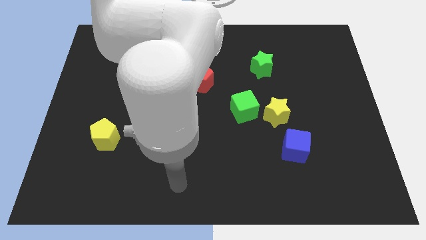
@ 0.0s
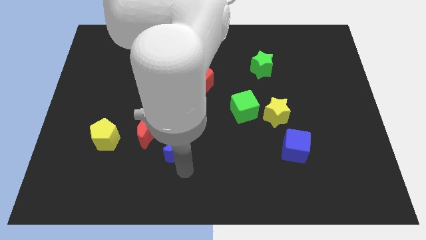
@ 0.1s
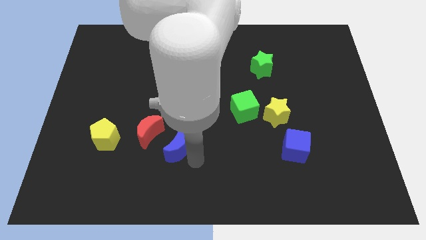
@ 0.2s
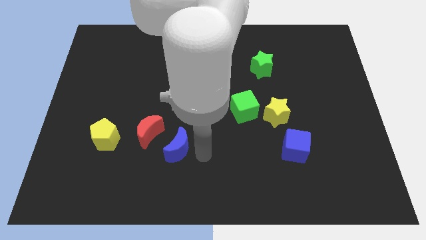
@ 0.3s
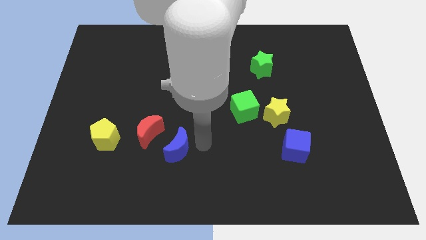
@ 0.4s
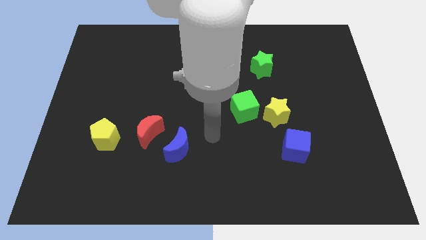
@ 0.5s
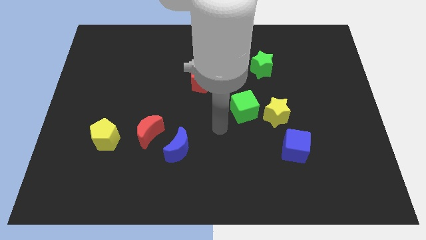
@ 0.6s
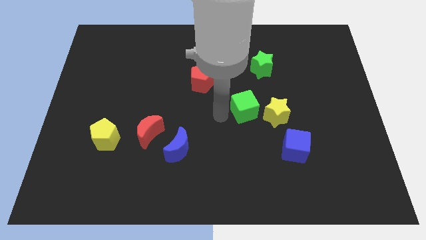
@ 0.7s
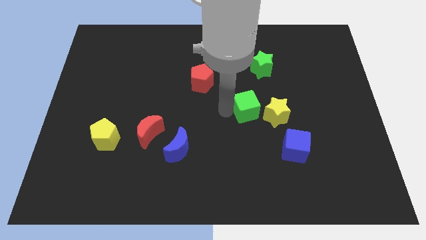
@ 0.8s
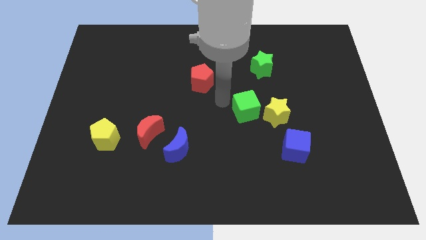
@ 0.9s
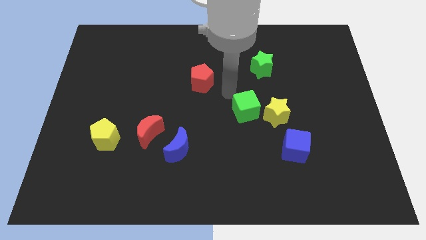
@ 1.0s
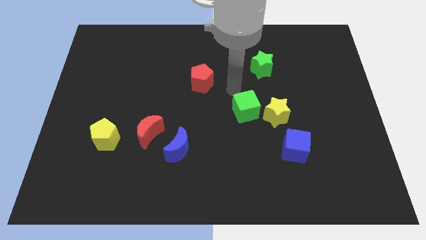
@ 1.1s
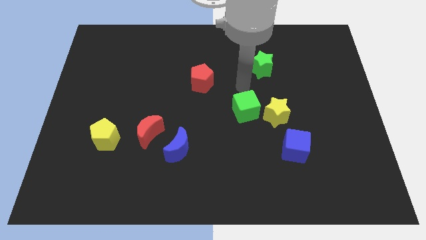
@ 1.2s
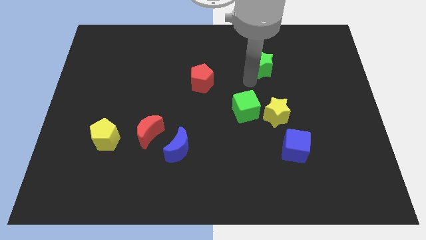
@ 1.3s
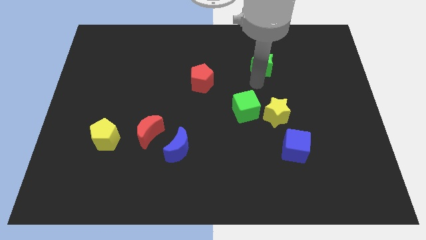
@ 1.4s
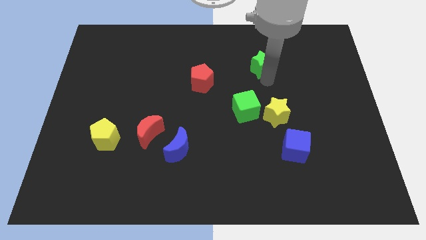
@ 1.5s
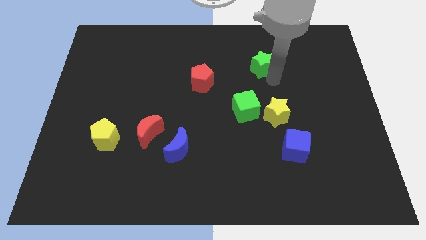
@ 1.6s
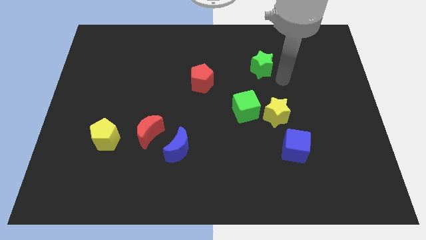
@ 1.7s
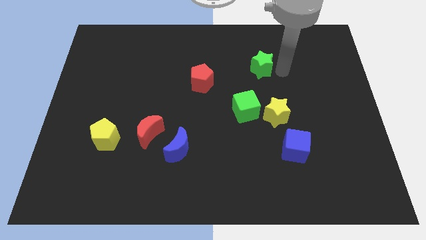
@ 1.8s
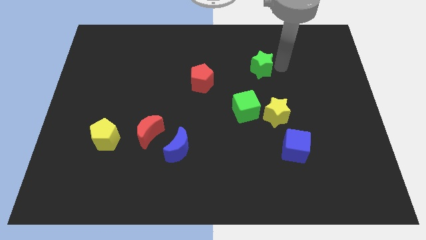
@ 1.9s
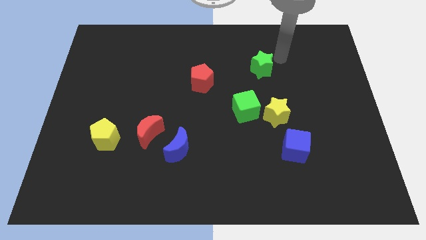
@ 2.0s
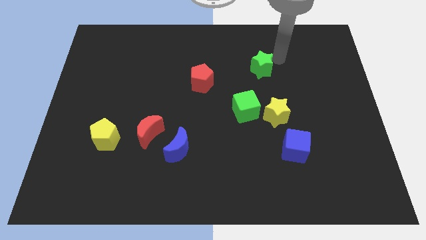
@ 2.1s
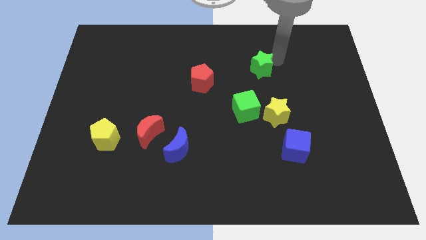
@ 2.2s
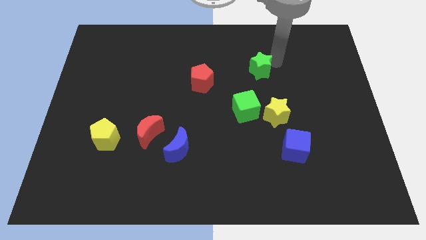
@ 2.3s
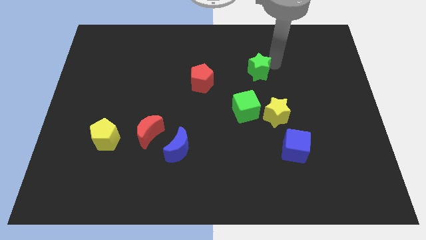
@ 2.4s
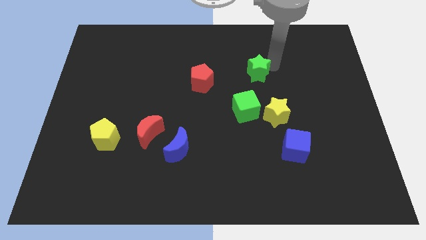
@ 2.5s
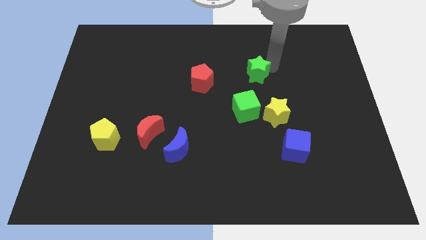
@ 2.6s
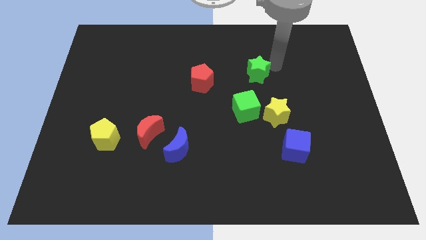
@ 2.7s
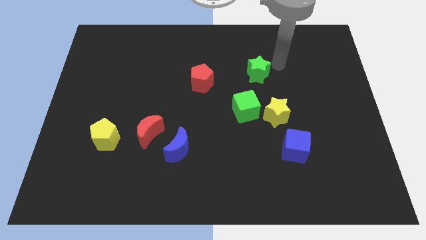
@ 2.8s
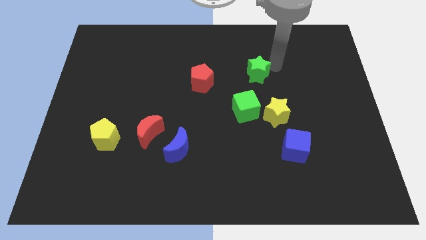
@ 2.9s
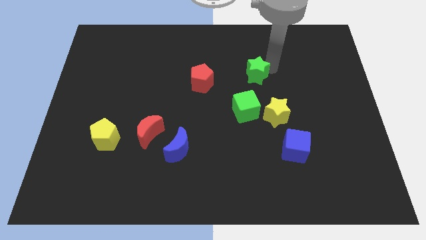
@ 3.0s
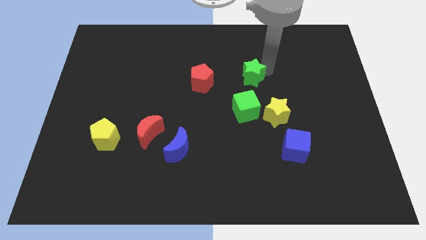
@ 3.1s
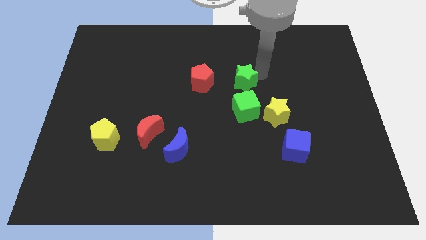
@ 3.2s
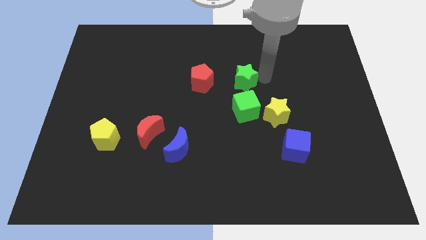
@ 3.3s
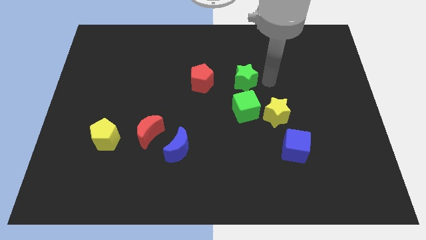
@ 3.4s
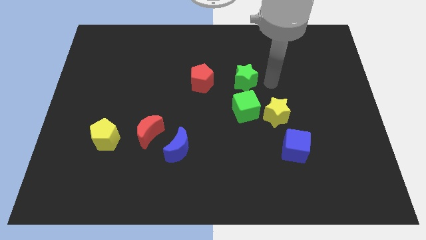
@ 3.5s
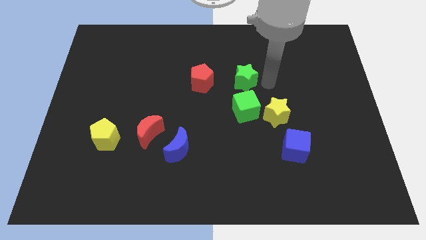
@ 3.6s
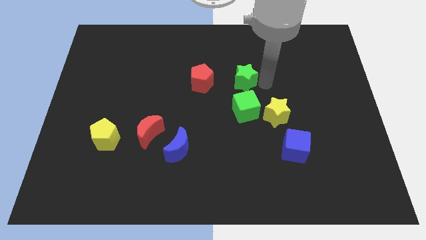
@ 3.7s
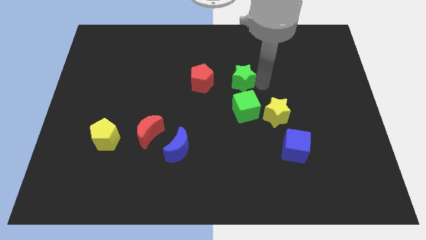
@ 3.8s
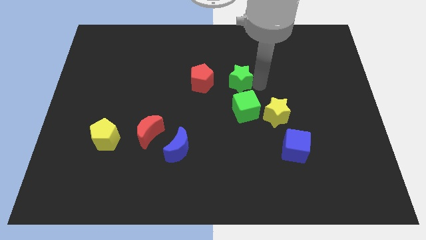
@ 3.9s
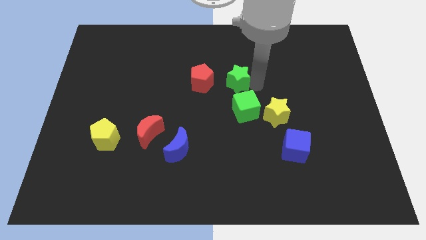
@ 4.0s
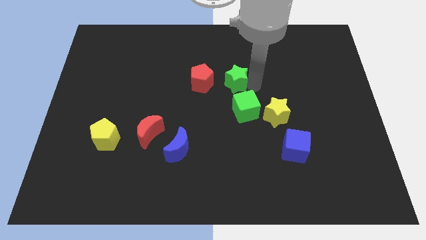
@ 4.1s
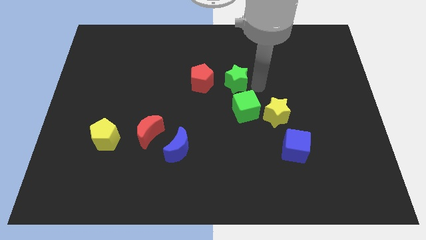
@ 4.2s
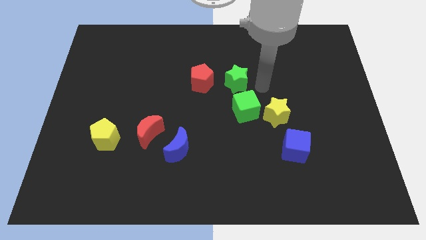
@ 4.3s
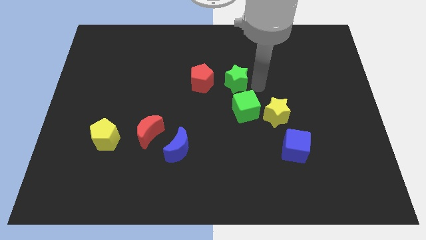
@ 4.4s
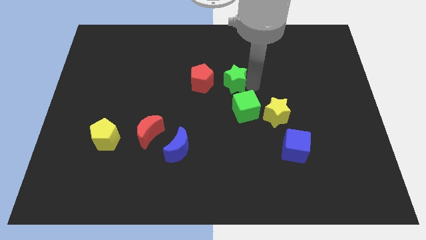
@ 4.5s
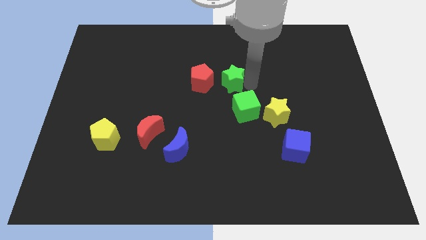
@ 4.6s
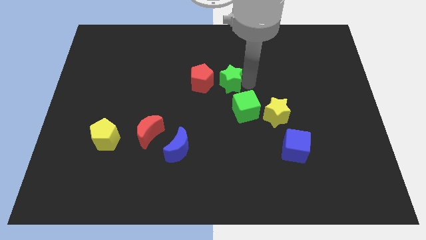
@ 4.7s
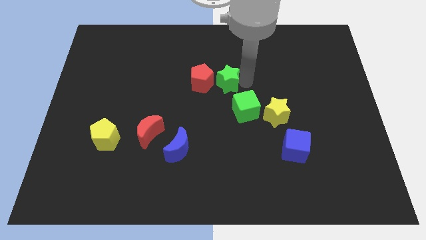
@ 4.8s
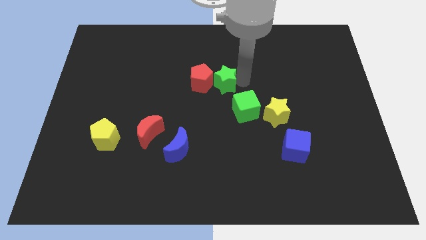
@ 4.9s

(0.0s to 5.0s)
push the green star next to the red pentagon

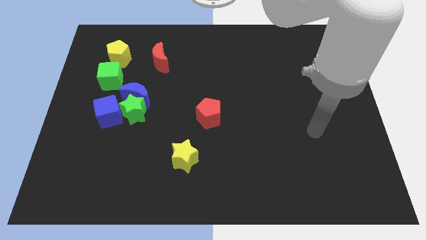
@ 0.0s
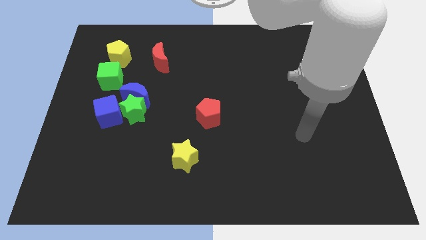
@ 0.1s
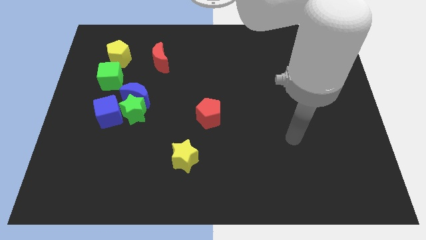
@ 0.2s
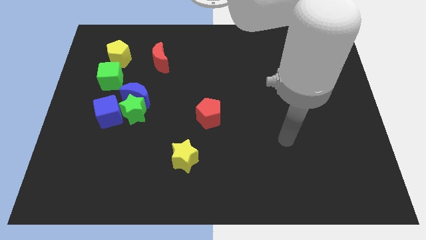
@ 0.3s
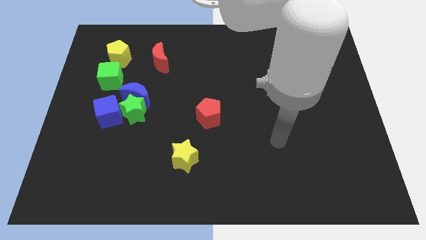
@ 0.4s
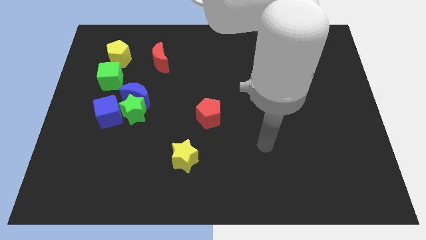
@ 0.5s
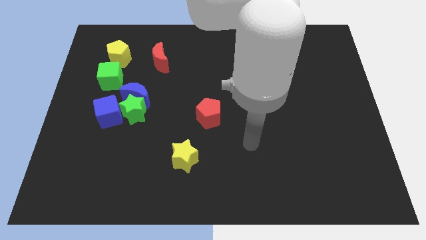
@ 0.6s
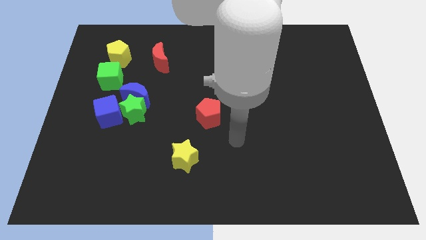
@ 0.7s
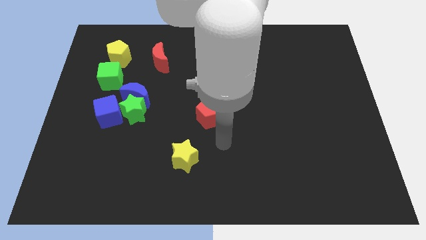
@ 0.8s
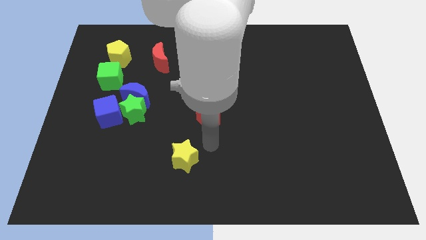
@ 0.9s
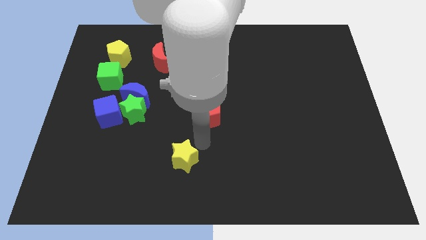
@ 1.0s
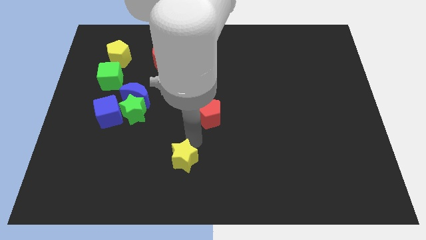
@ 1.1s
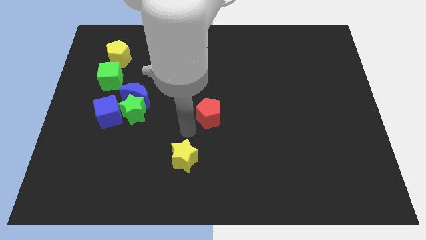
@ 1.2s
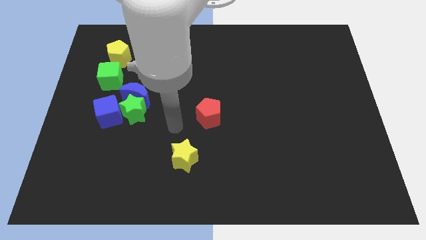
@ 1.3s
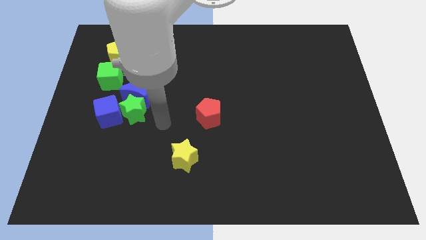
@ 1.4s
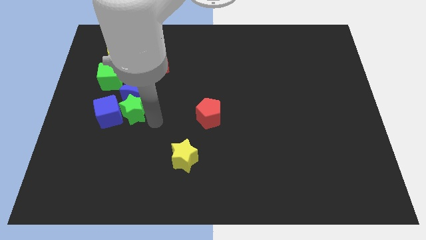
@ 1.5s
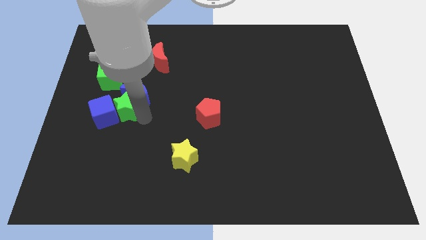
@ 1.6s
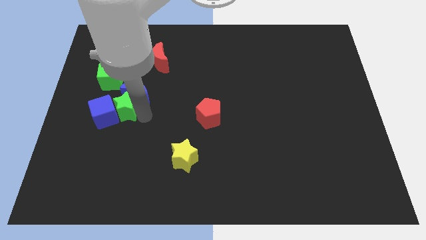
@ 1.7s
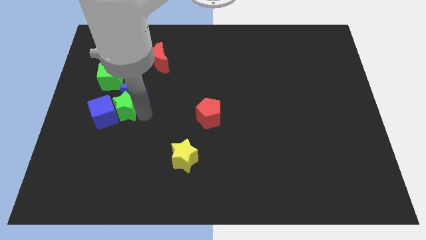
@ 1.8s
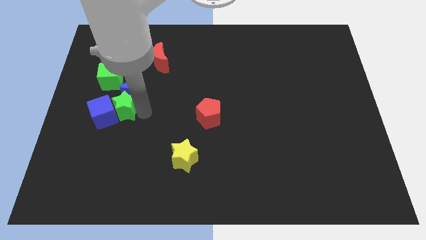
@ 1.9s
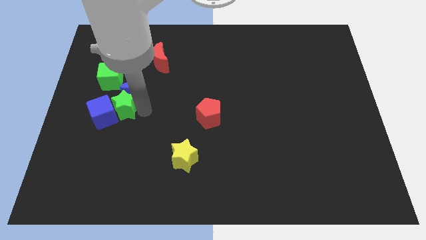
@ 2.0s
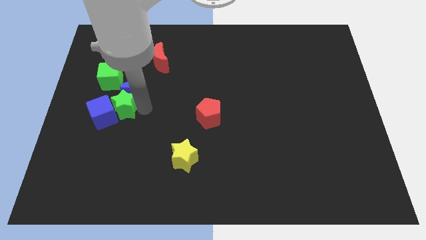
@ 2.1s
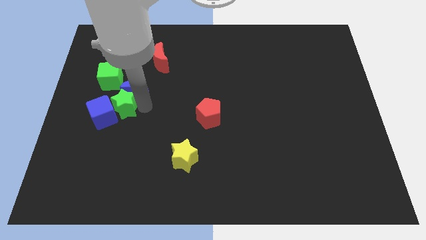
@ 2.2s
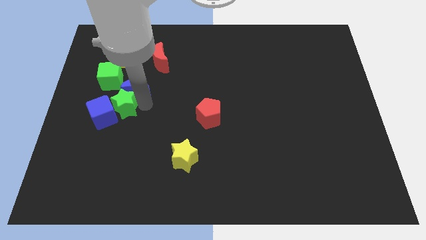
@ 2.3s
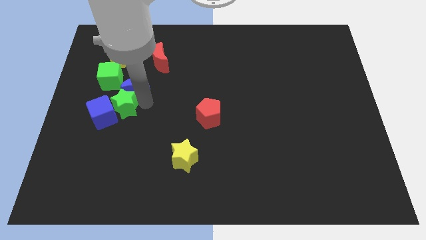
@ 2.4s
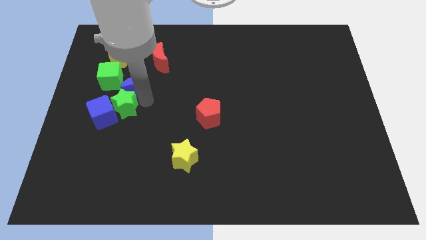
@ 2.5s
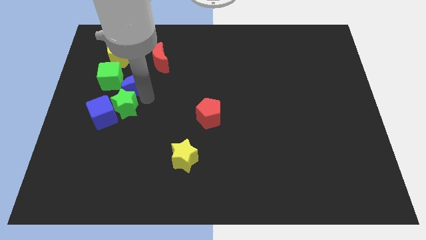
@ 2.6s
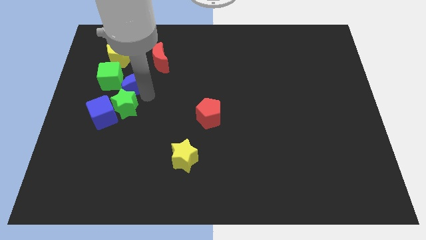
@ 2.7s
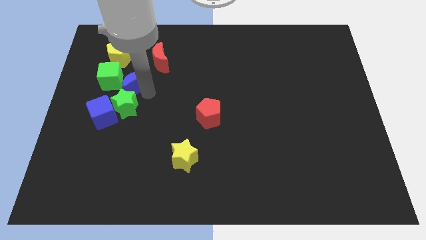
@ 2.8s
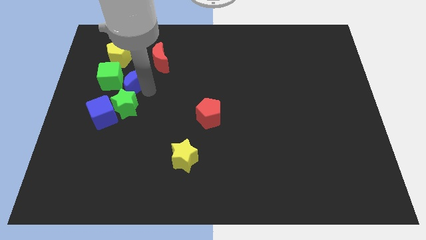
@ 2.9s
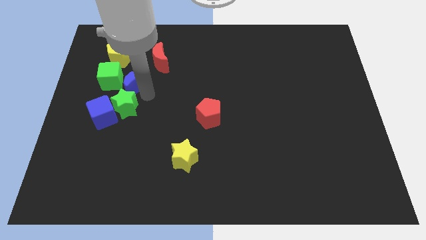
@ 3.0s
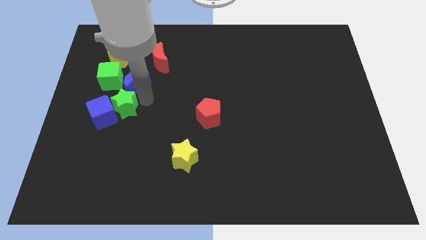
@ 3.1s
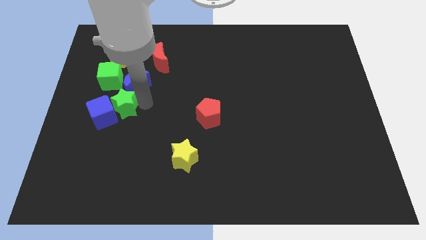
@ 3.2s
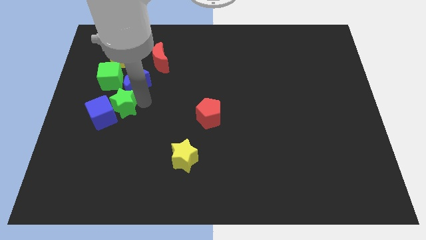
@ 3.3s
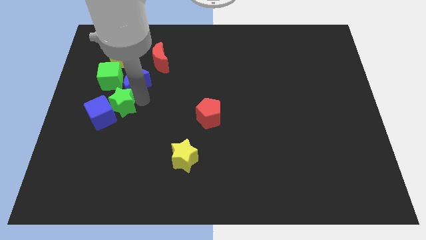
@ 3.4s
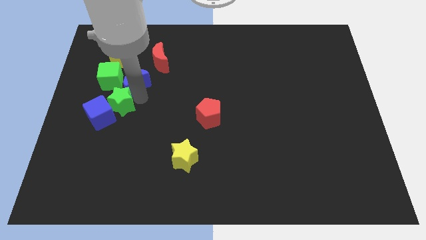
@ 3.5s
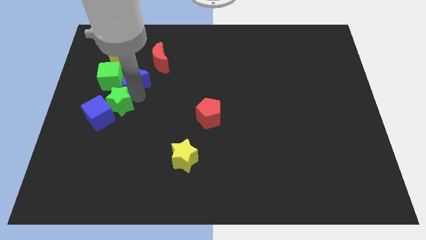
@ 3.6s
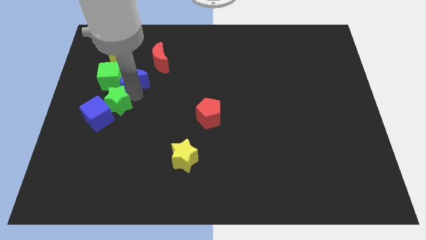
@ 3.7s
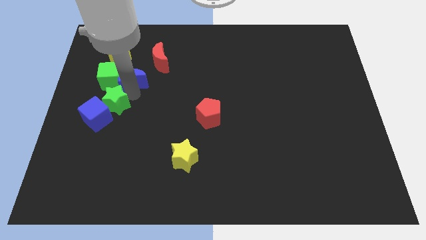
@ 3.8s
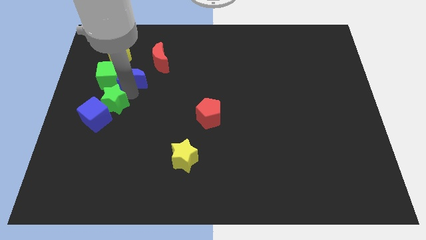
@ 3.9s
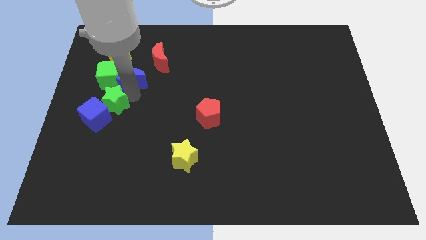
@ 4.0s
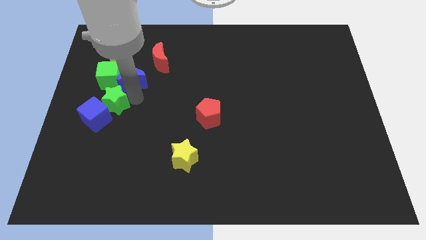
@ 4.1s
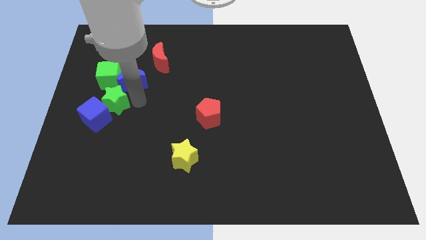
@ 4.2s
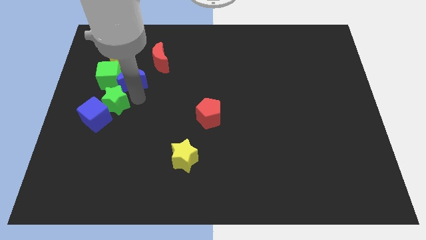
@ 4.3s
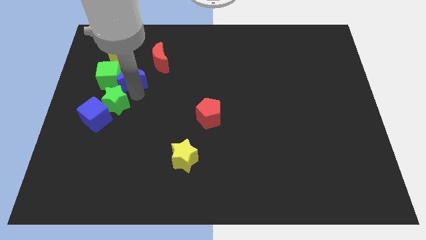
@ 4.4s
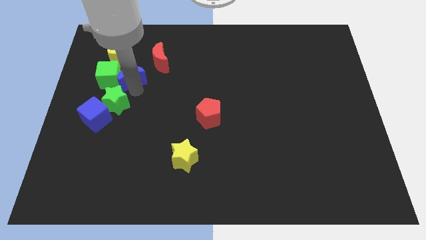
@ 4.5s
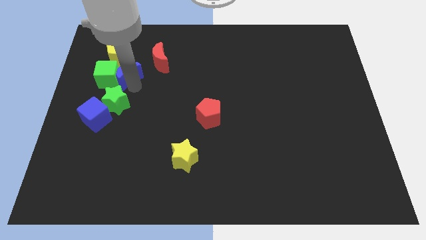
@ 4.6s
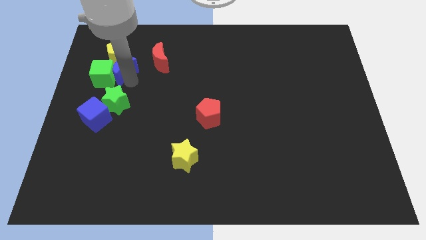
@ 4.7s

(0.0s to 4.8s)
put the blue moon next to the yellow pentagon
